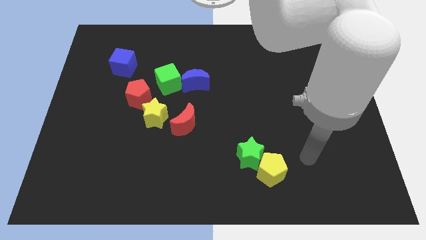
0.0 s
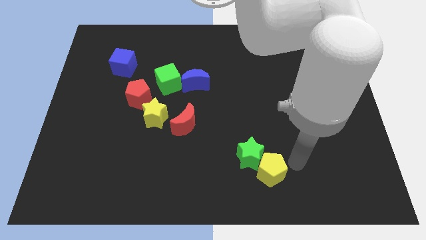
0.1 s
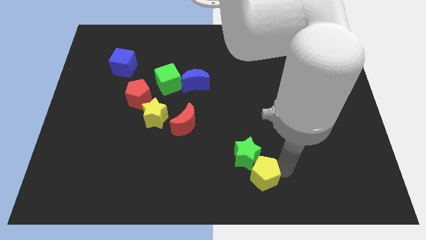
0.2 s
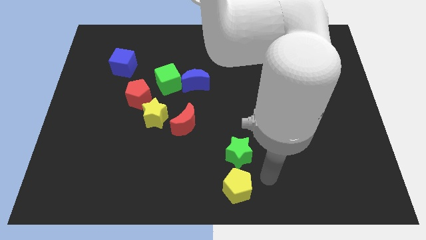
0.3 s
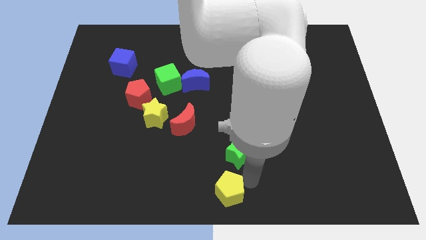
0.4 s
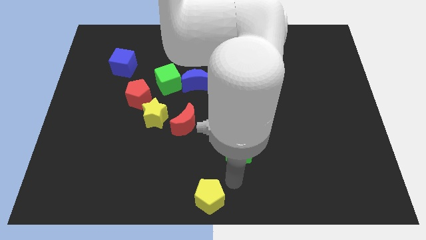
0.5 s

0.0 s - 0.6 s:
separate the green star from the yellow pentagon

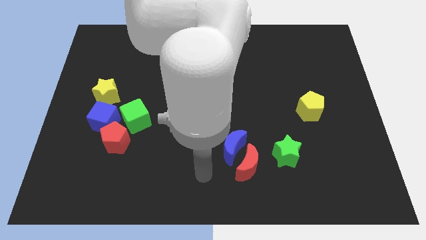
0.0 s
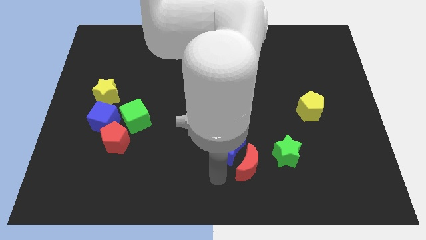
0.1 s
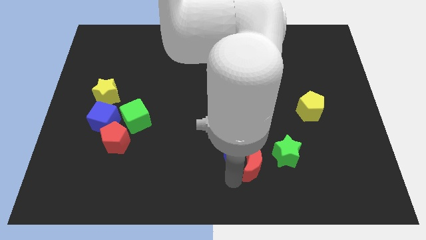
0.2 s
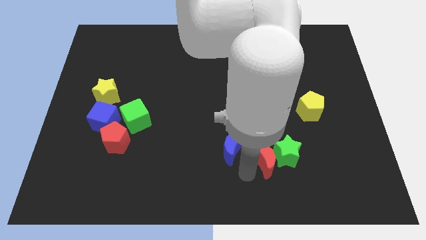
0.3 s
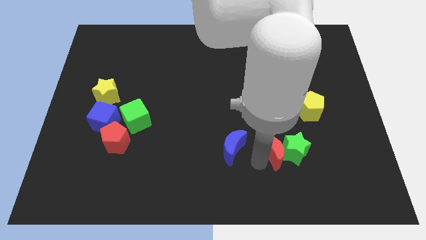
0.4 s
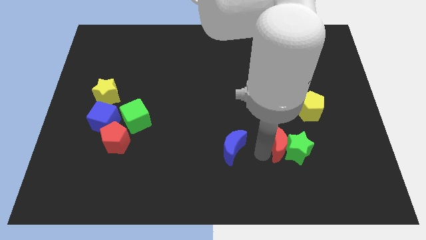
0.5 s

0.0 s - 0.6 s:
move the blue moon away from the red moon

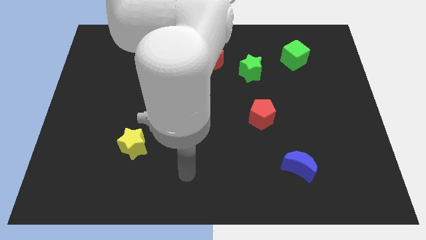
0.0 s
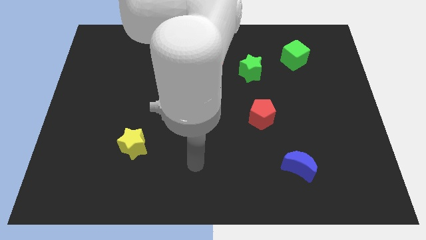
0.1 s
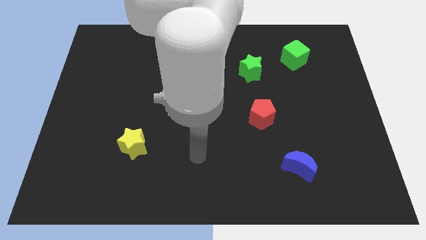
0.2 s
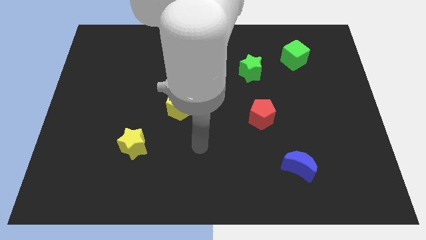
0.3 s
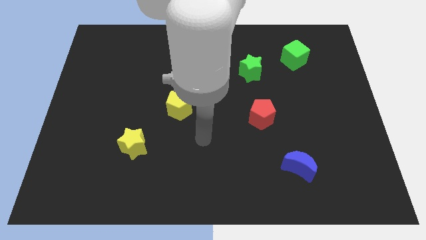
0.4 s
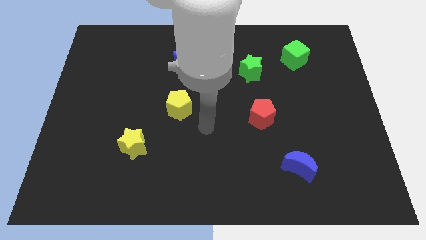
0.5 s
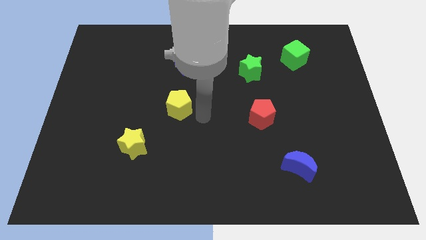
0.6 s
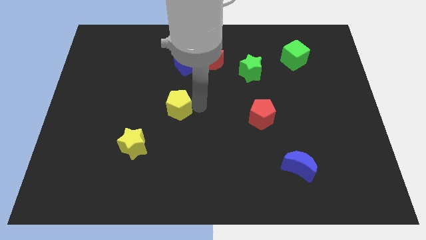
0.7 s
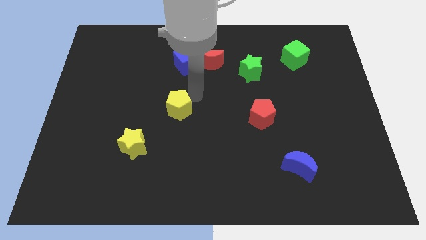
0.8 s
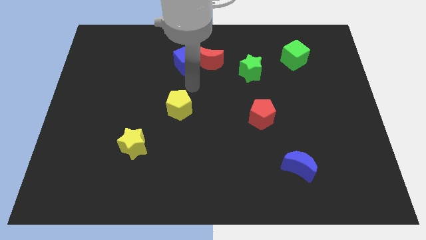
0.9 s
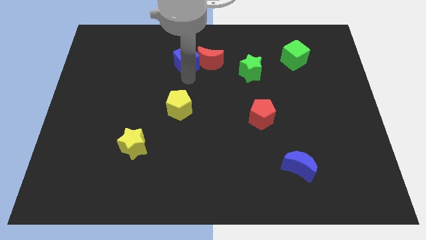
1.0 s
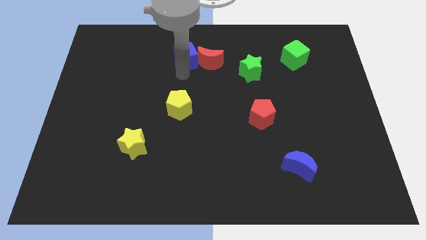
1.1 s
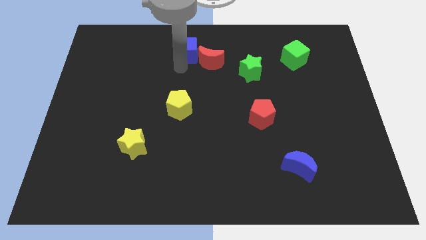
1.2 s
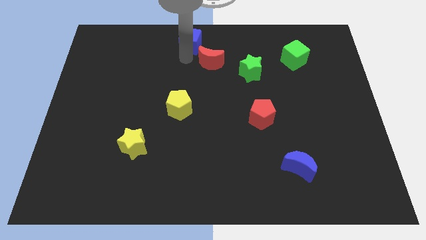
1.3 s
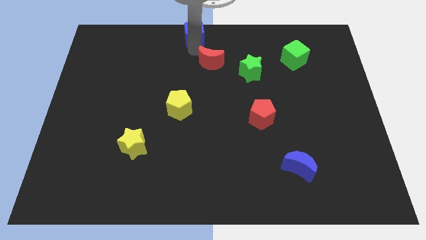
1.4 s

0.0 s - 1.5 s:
separate the red moon from the blue cube

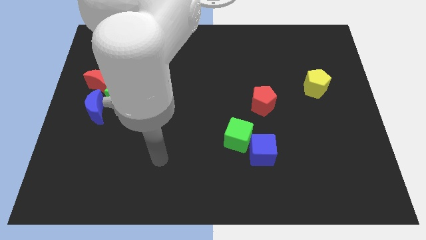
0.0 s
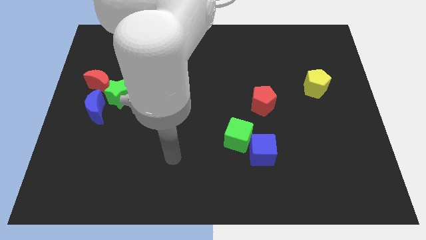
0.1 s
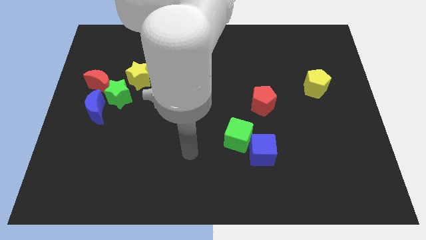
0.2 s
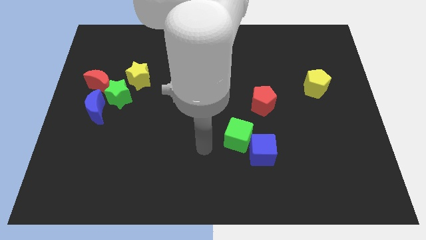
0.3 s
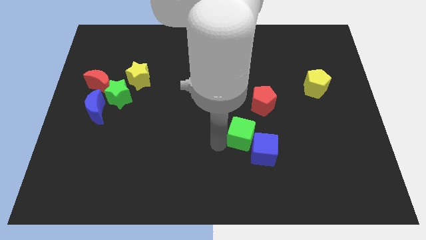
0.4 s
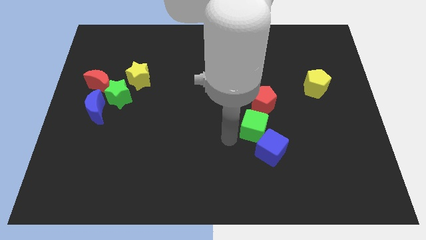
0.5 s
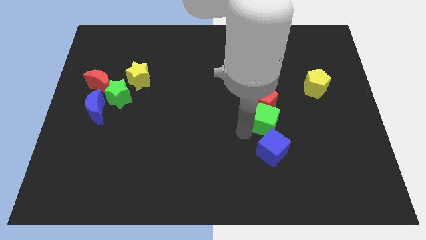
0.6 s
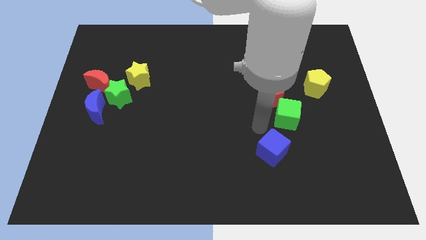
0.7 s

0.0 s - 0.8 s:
move the blue cube away from the green cube

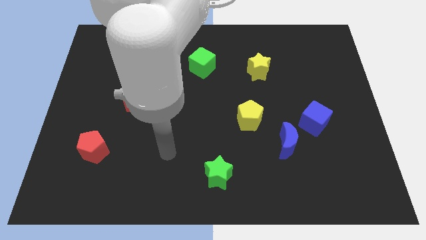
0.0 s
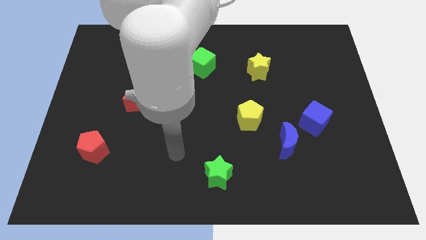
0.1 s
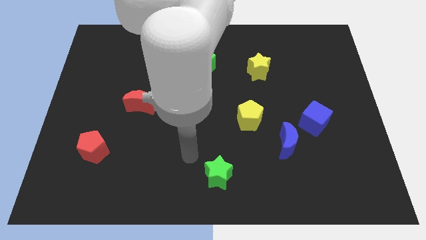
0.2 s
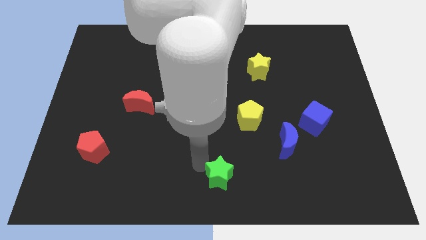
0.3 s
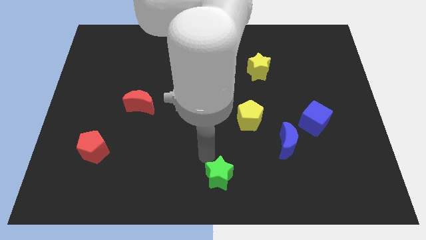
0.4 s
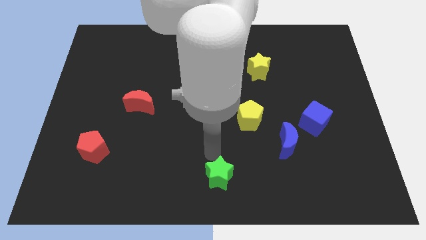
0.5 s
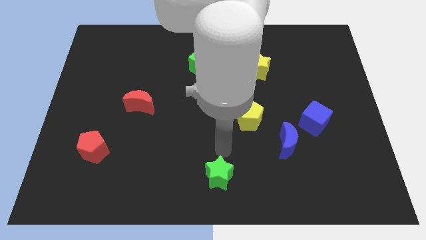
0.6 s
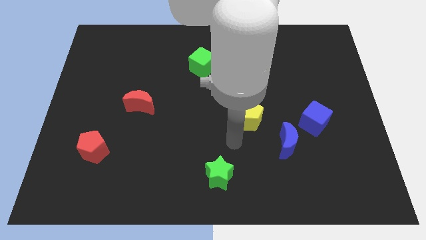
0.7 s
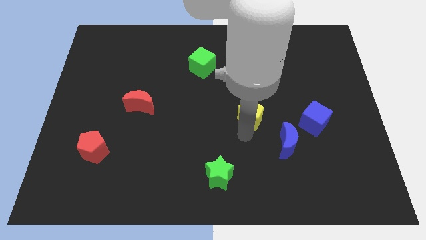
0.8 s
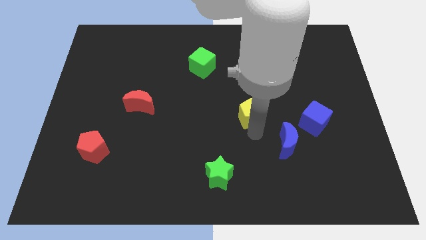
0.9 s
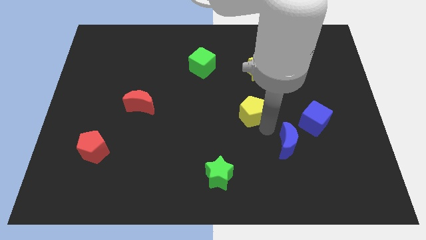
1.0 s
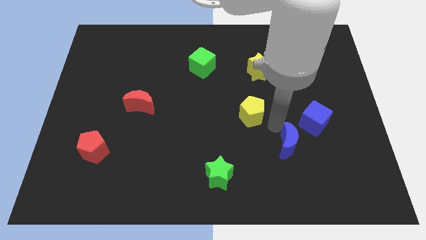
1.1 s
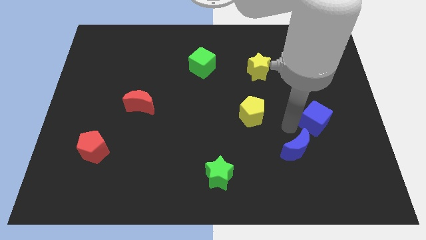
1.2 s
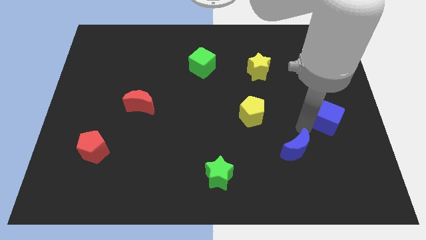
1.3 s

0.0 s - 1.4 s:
pull the blue moon apart from the blue cube

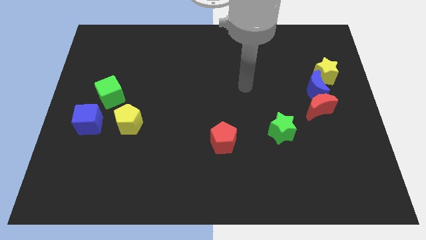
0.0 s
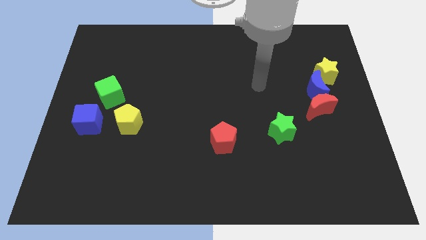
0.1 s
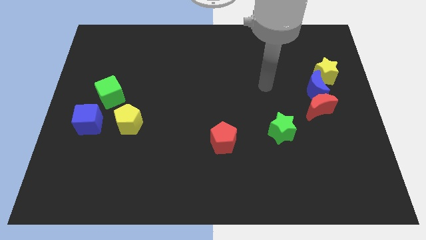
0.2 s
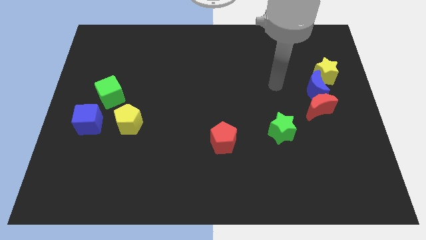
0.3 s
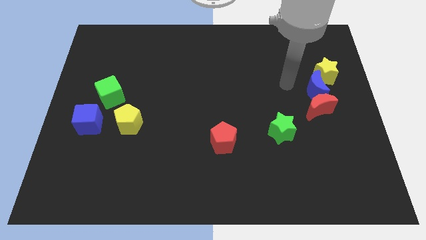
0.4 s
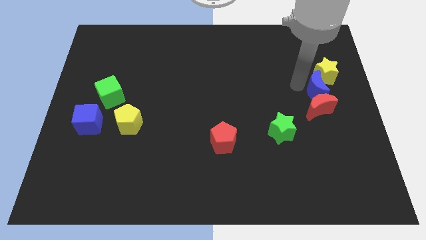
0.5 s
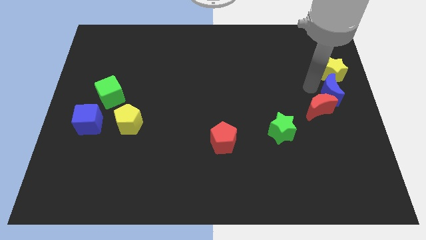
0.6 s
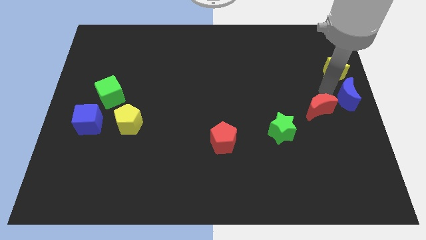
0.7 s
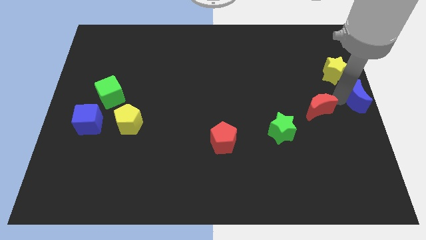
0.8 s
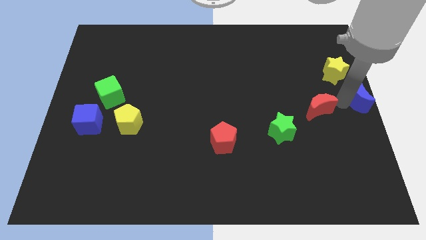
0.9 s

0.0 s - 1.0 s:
move the red moon away from the blue moon

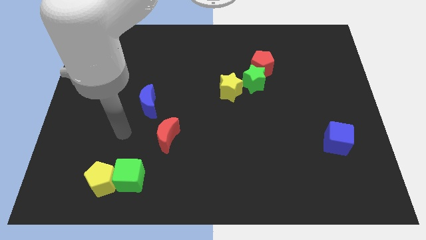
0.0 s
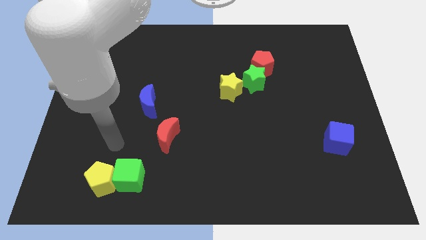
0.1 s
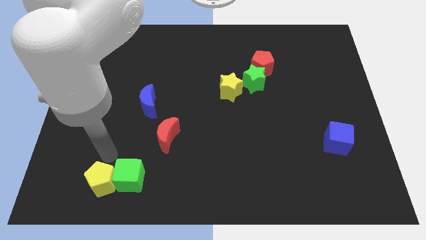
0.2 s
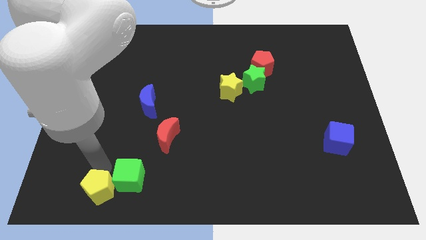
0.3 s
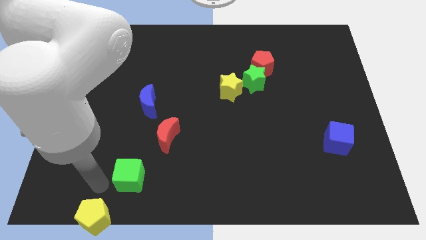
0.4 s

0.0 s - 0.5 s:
separate the green cube from the yellow pentagon

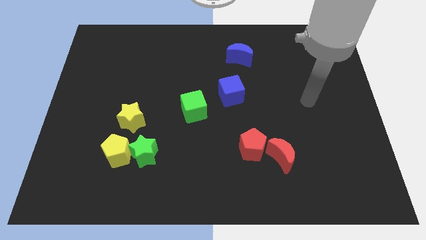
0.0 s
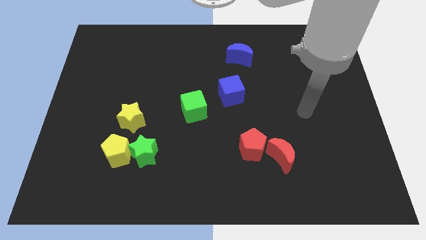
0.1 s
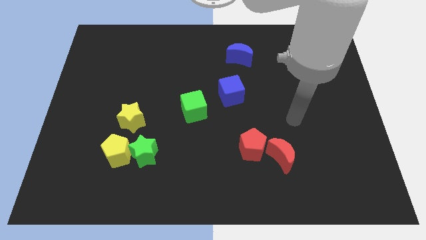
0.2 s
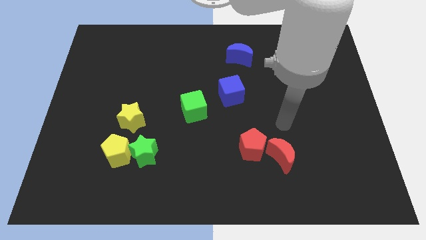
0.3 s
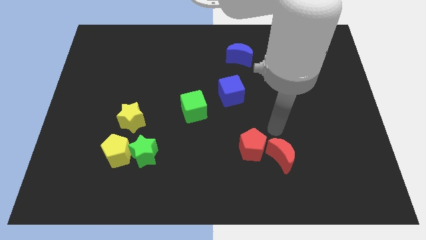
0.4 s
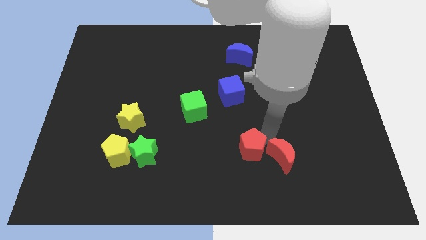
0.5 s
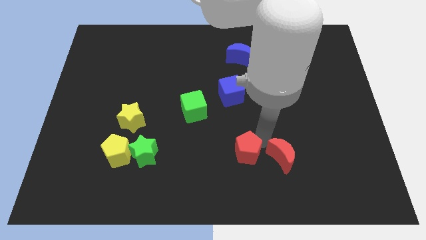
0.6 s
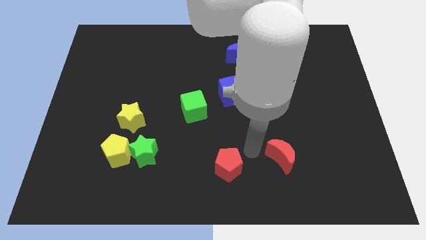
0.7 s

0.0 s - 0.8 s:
move the red moon away from the red pentagon

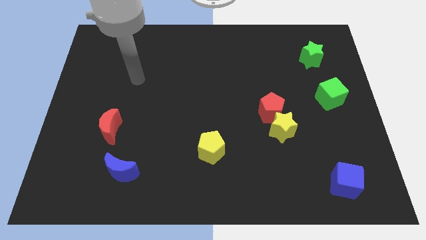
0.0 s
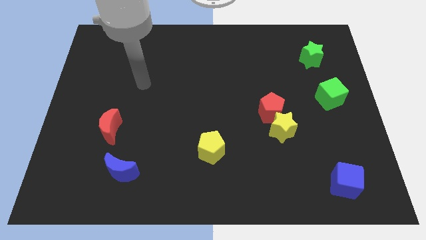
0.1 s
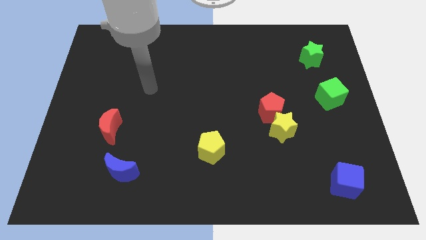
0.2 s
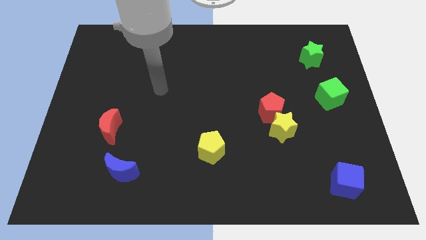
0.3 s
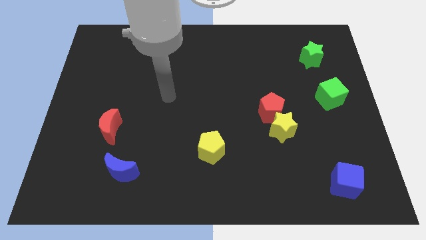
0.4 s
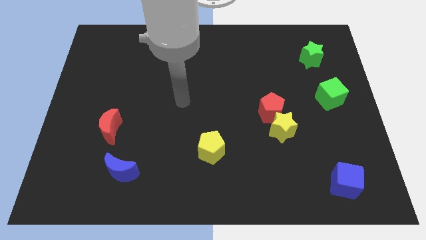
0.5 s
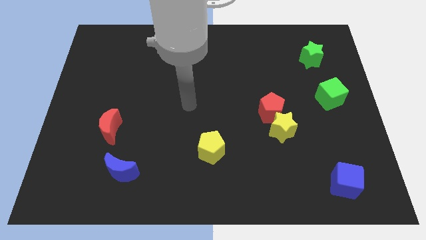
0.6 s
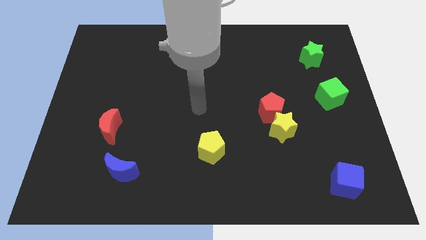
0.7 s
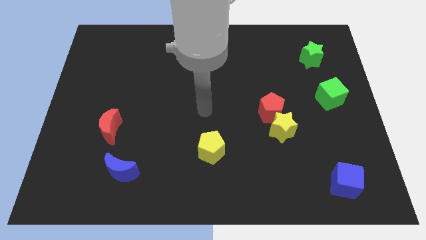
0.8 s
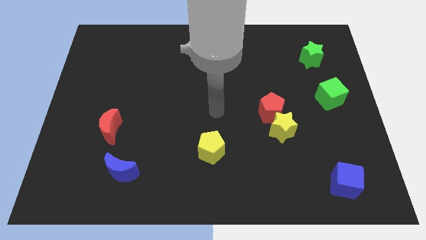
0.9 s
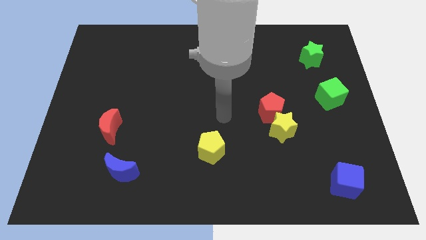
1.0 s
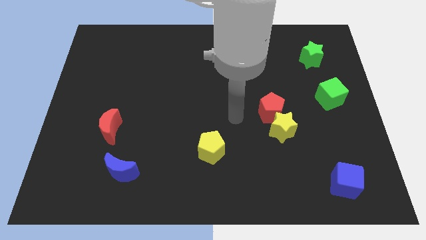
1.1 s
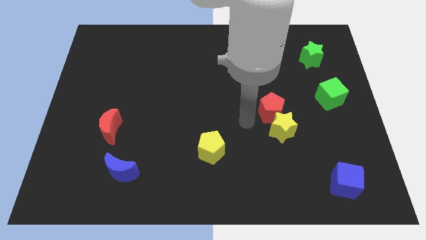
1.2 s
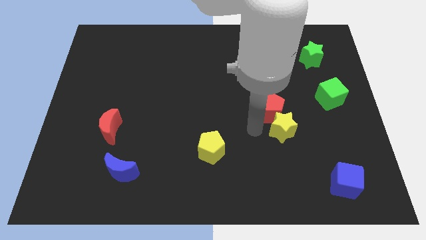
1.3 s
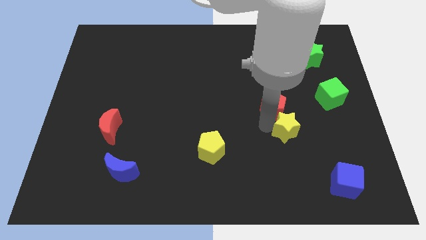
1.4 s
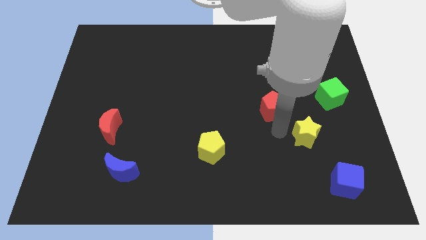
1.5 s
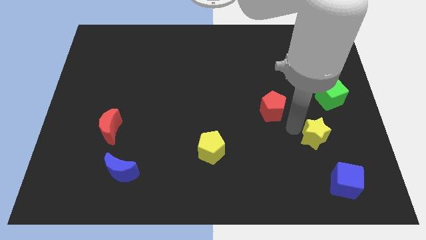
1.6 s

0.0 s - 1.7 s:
pull the red pentagon apart from the yellow star

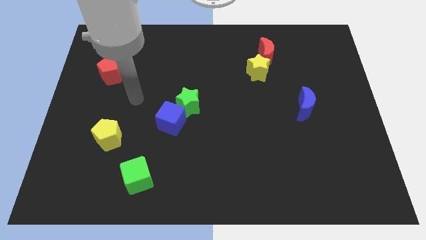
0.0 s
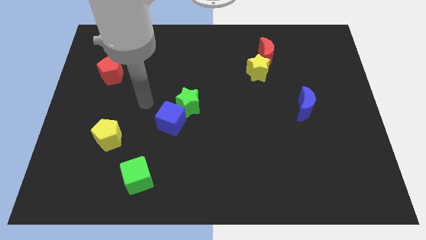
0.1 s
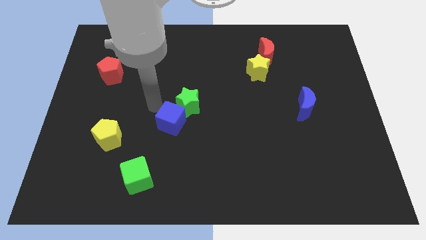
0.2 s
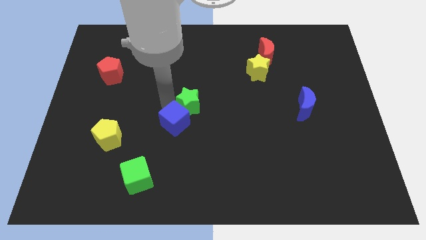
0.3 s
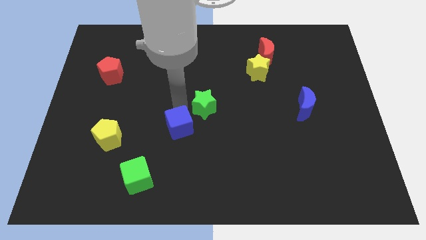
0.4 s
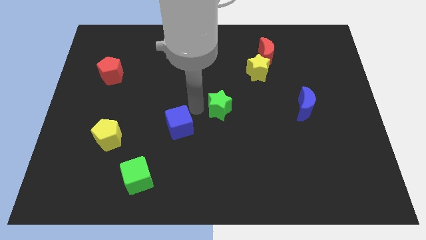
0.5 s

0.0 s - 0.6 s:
pull the blue cube apart from the green star
